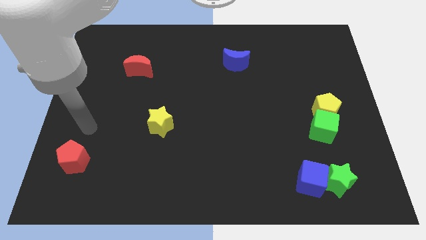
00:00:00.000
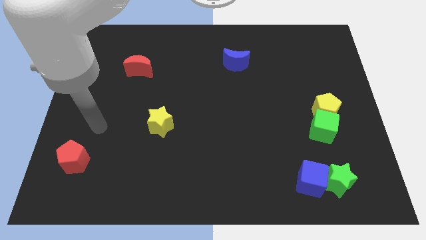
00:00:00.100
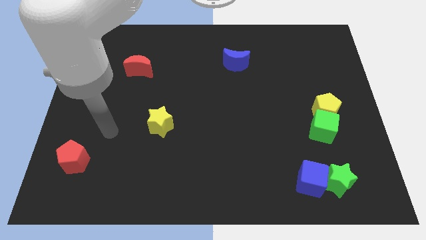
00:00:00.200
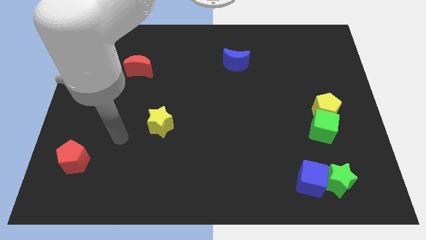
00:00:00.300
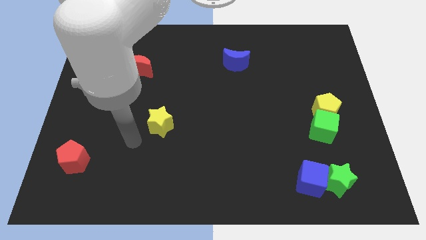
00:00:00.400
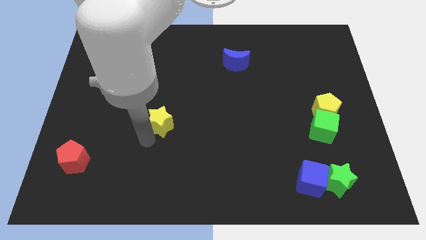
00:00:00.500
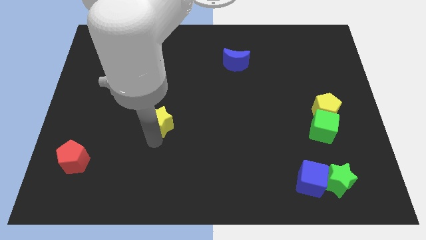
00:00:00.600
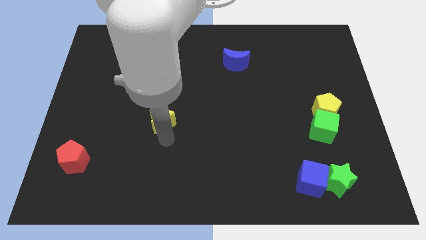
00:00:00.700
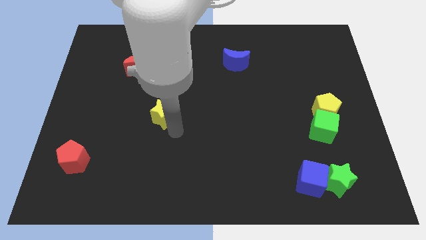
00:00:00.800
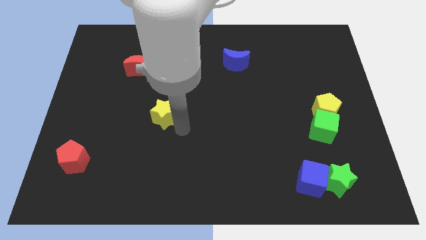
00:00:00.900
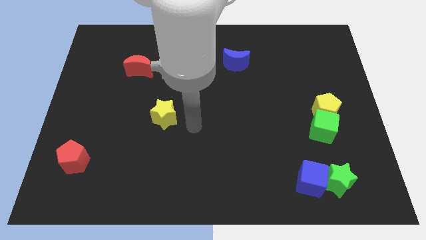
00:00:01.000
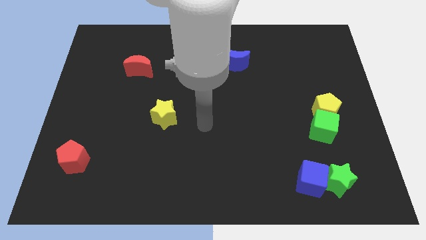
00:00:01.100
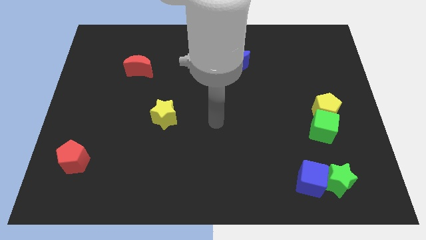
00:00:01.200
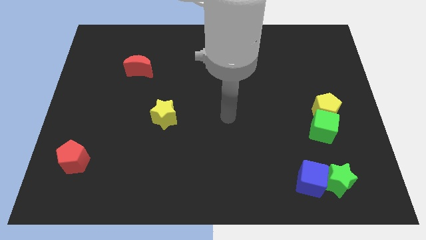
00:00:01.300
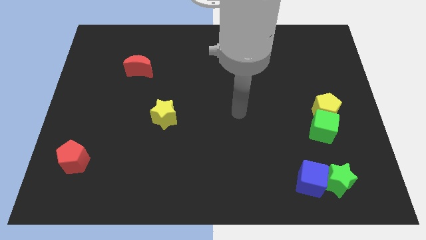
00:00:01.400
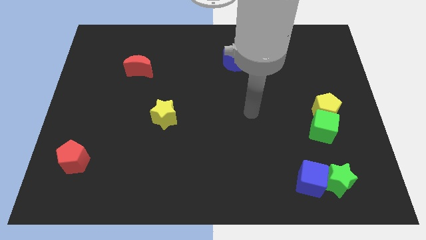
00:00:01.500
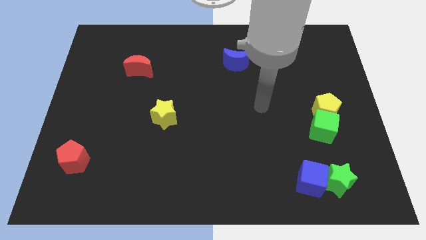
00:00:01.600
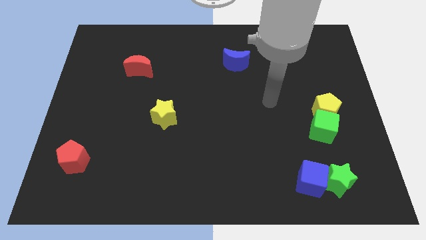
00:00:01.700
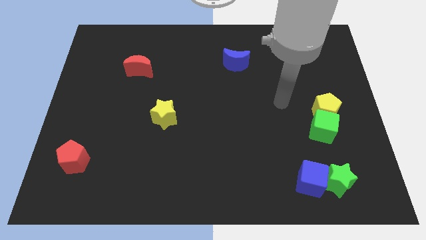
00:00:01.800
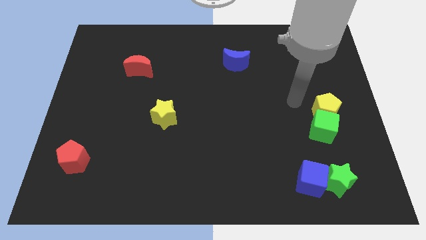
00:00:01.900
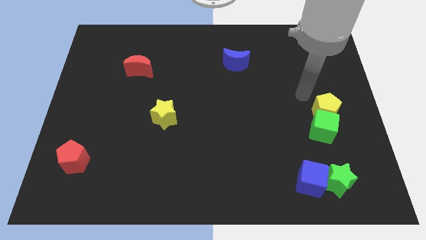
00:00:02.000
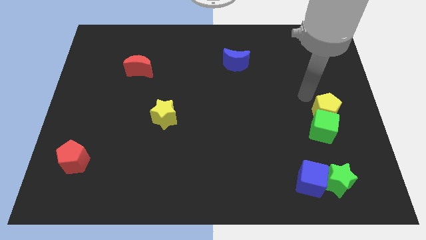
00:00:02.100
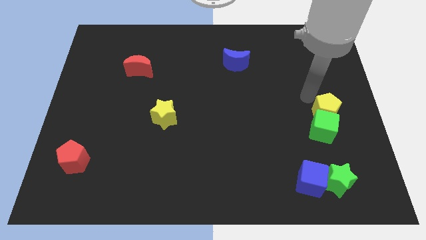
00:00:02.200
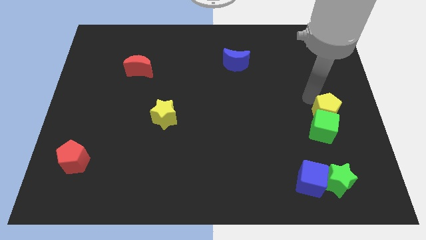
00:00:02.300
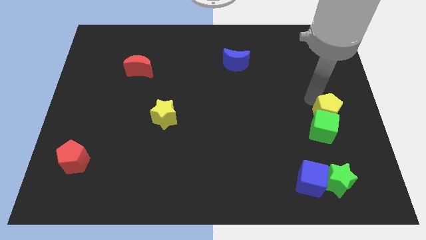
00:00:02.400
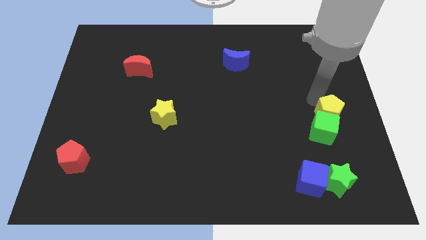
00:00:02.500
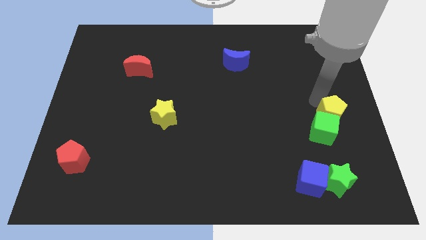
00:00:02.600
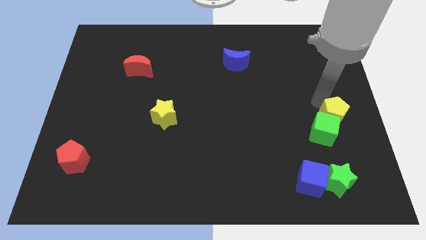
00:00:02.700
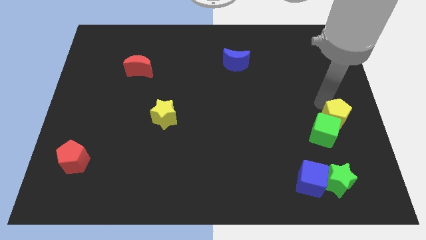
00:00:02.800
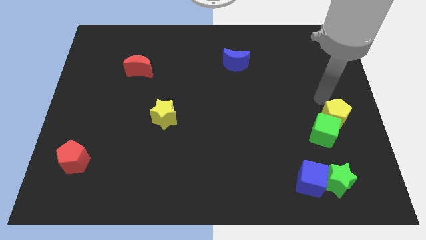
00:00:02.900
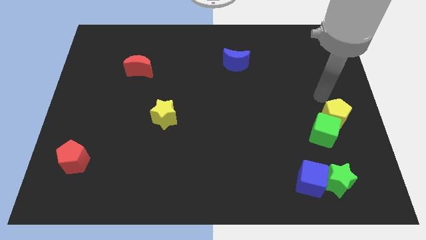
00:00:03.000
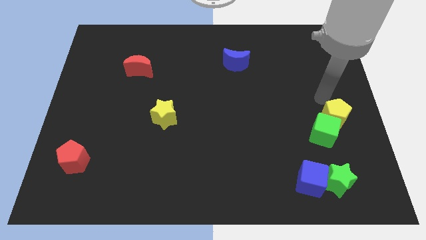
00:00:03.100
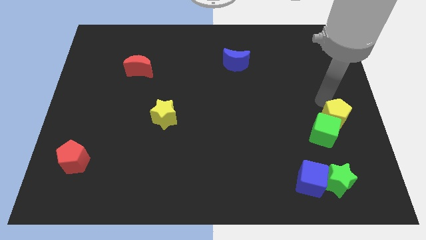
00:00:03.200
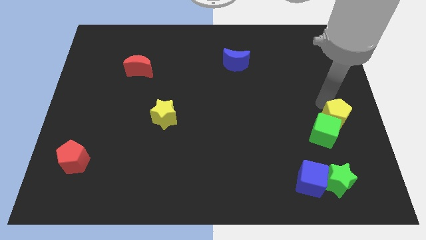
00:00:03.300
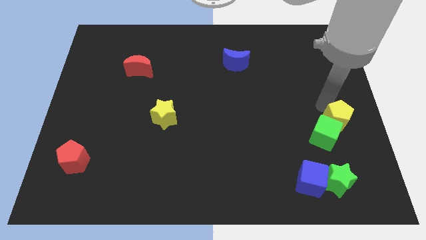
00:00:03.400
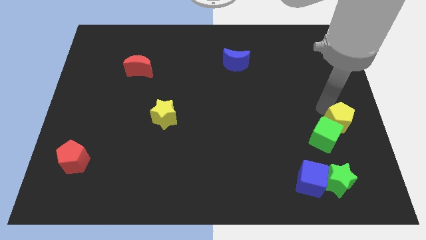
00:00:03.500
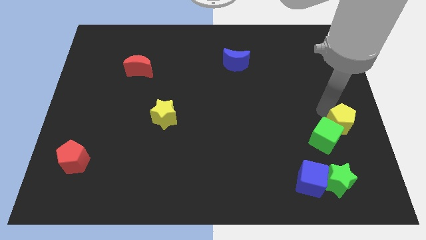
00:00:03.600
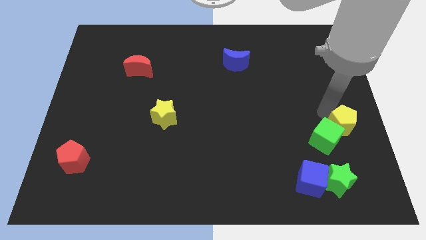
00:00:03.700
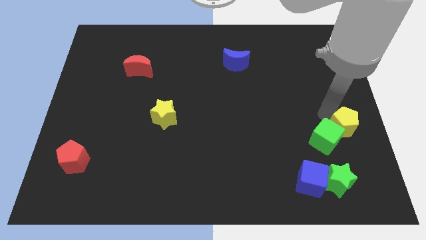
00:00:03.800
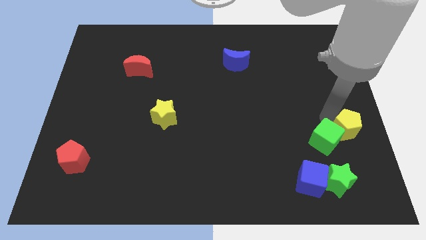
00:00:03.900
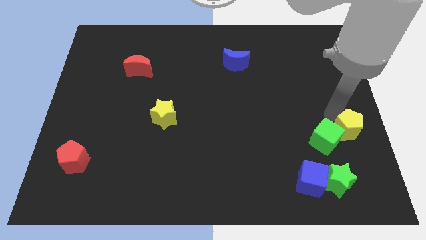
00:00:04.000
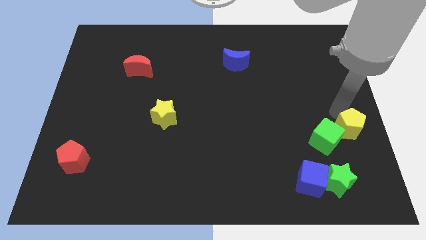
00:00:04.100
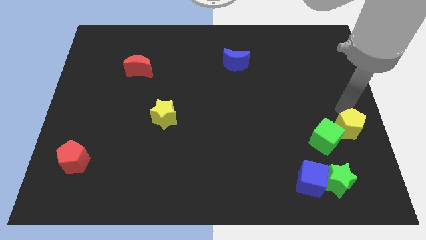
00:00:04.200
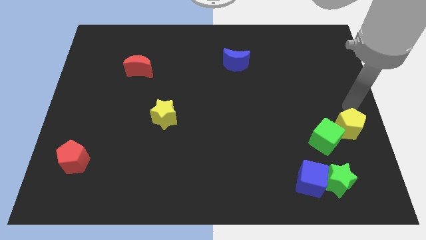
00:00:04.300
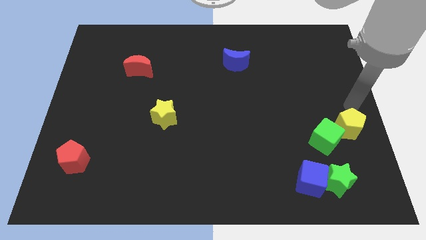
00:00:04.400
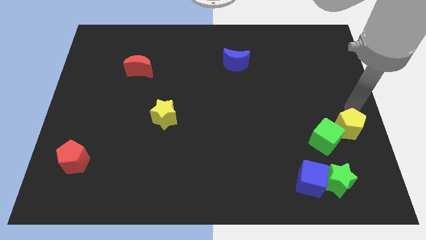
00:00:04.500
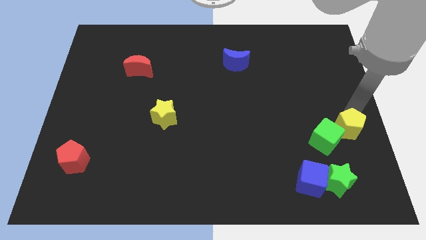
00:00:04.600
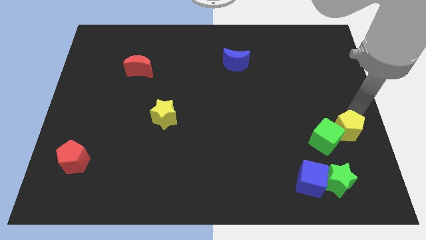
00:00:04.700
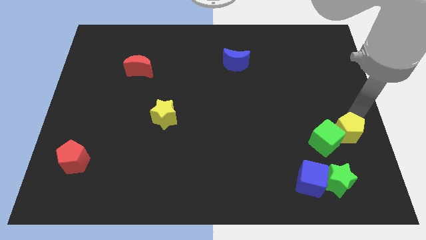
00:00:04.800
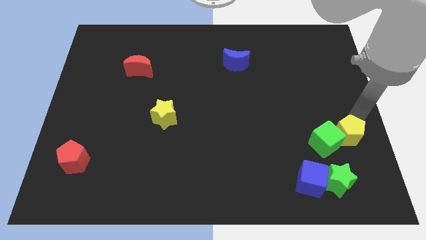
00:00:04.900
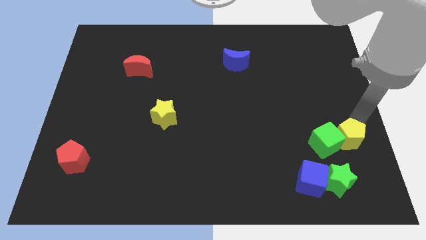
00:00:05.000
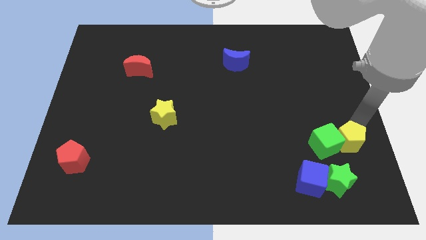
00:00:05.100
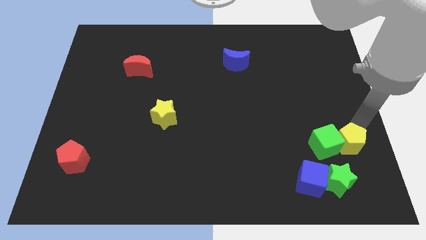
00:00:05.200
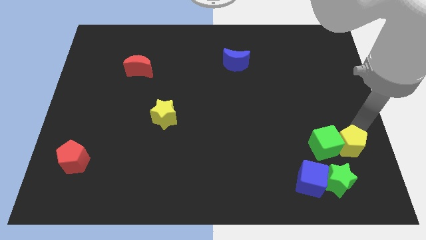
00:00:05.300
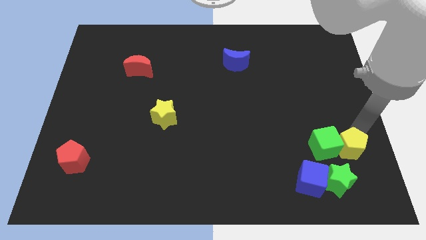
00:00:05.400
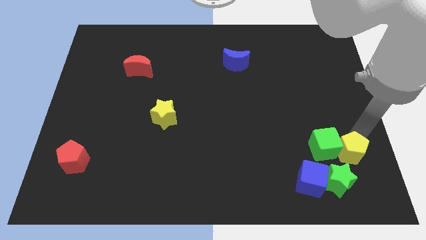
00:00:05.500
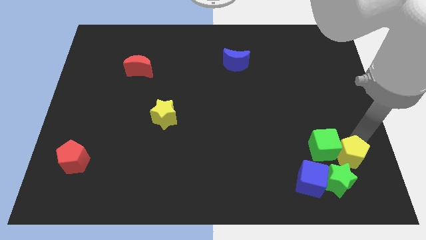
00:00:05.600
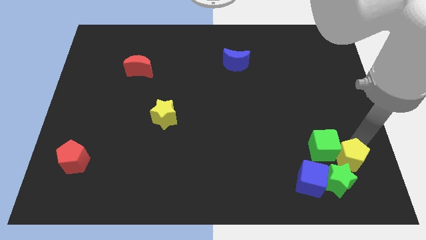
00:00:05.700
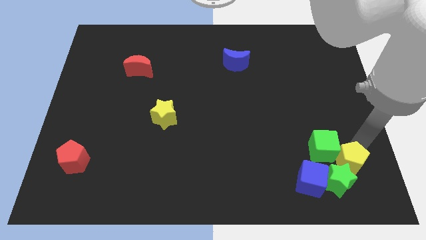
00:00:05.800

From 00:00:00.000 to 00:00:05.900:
slide the yellow pentagon close to the green star
